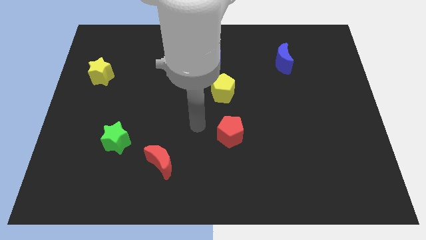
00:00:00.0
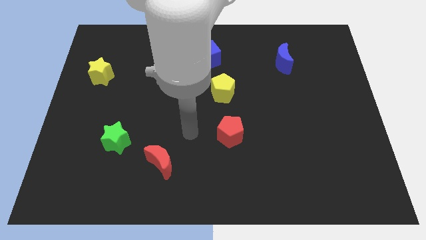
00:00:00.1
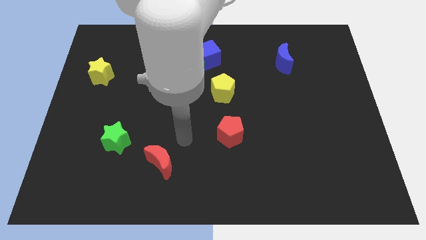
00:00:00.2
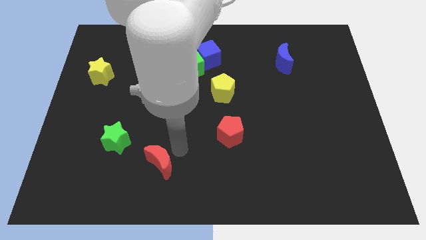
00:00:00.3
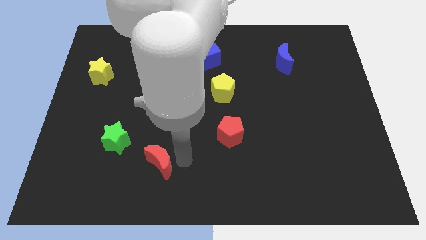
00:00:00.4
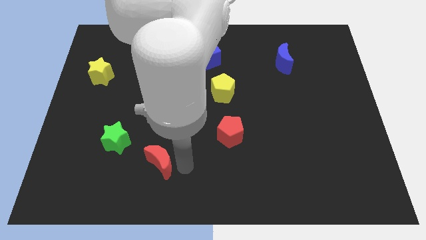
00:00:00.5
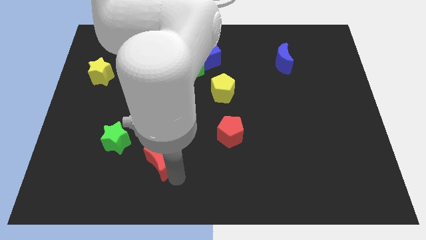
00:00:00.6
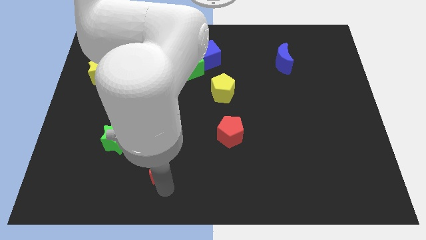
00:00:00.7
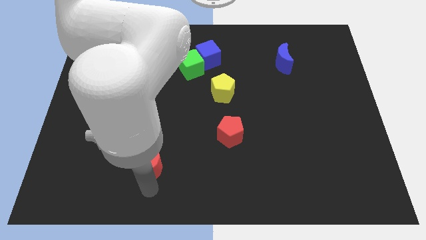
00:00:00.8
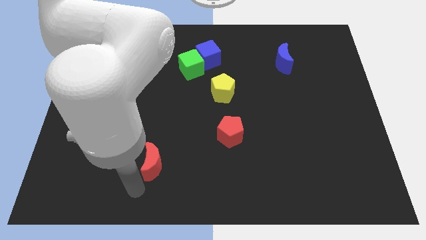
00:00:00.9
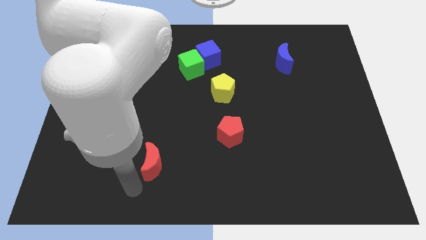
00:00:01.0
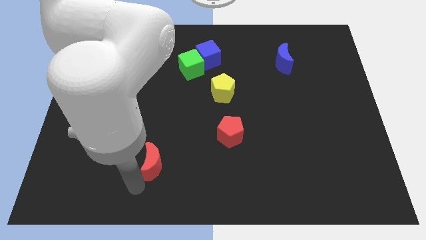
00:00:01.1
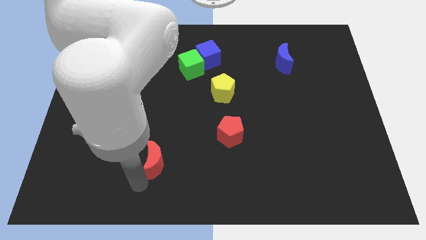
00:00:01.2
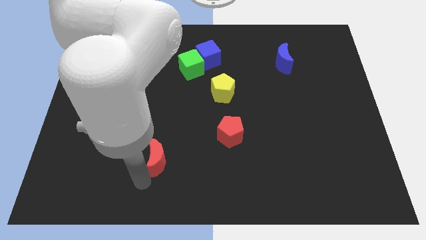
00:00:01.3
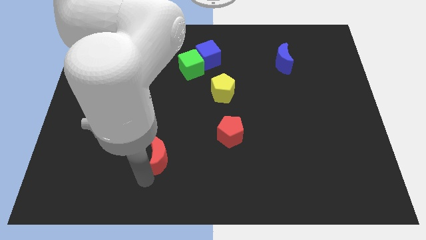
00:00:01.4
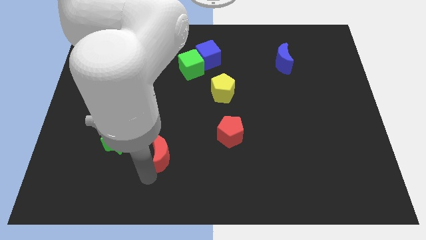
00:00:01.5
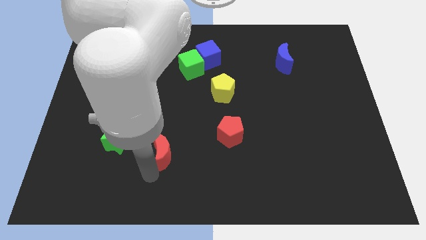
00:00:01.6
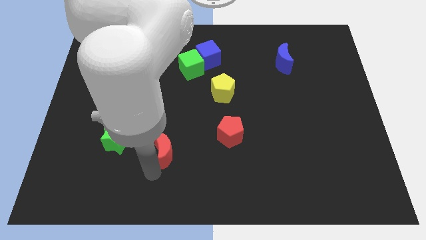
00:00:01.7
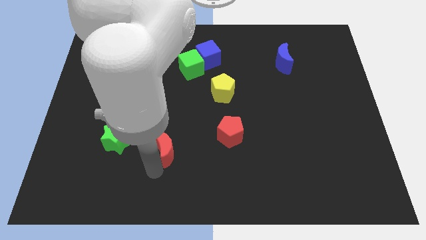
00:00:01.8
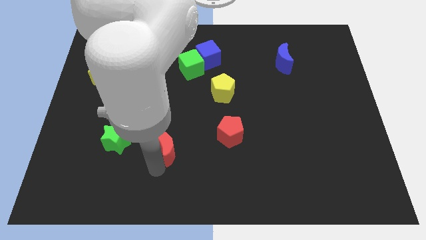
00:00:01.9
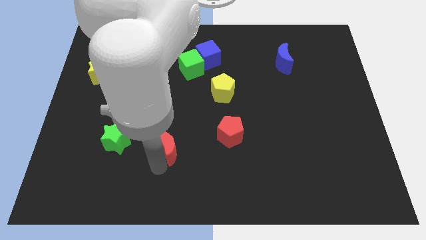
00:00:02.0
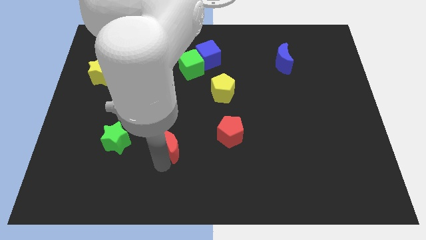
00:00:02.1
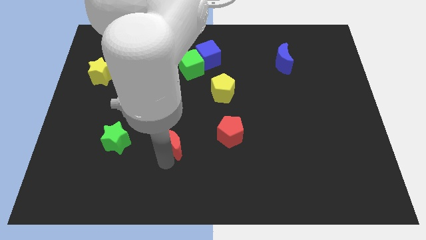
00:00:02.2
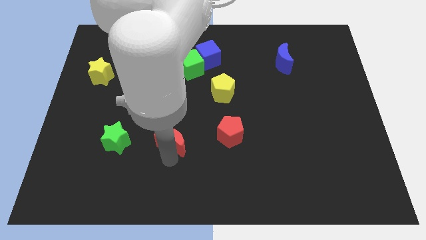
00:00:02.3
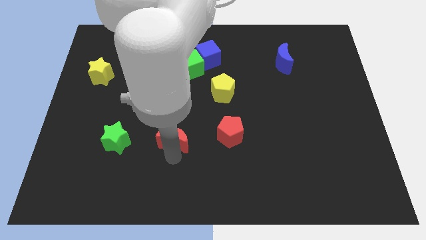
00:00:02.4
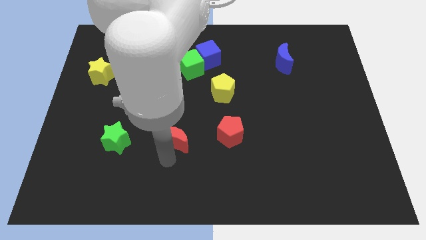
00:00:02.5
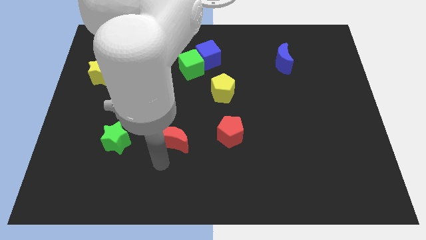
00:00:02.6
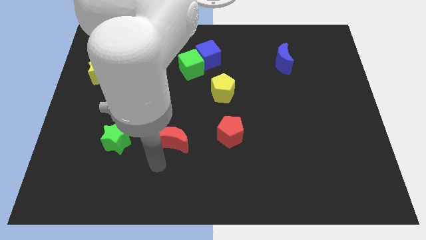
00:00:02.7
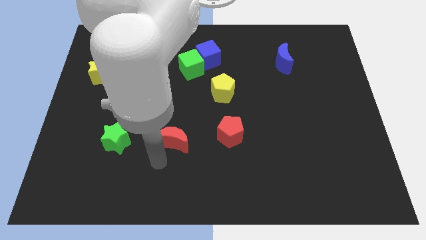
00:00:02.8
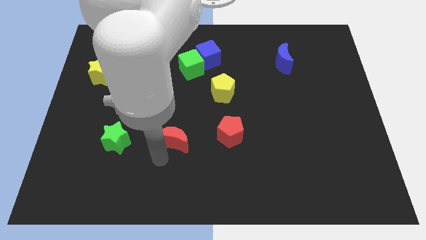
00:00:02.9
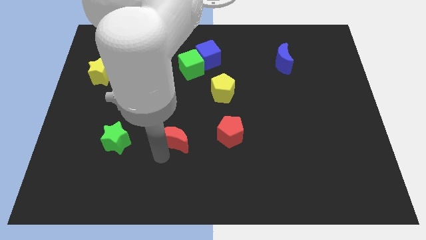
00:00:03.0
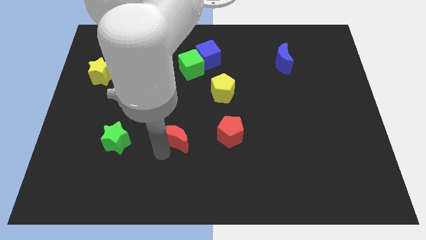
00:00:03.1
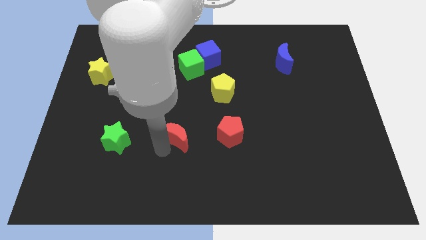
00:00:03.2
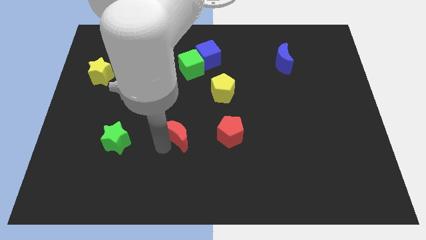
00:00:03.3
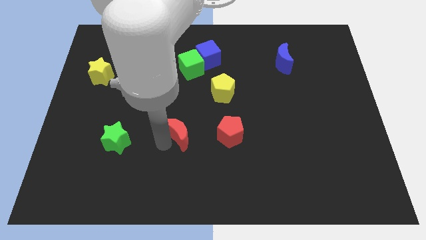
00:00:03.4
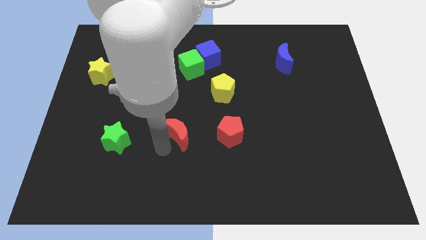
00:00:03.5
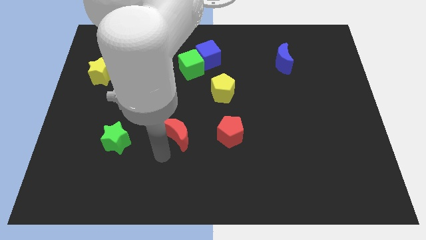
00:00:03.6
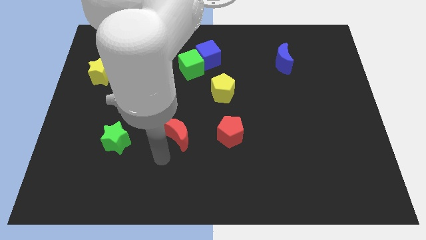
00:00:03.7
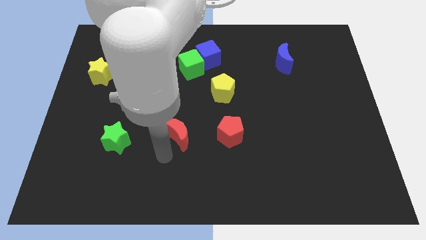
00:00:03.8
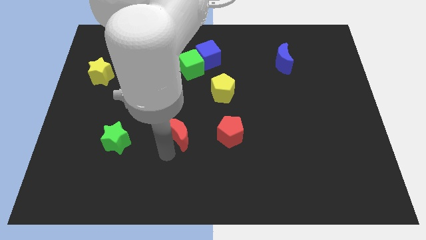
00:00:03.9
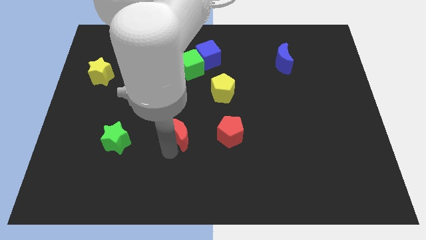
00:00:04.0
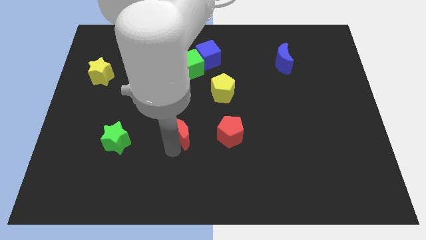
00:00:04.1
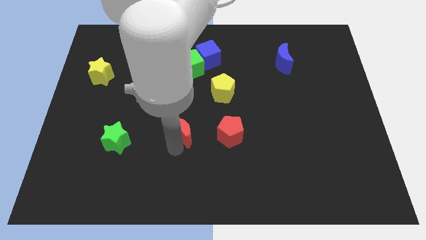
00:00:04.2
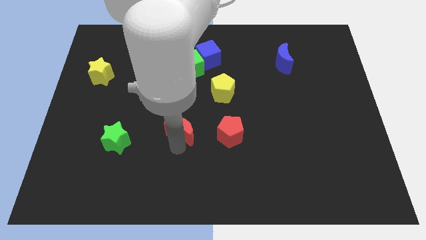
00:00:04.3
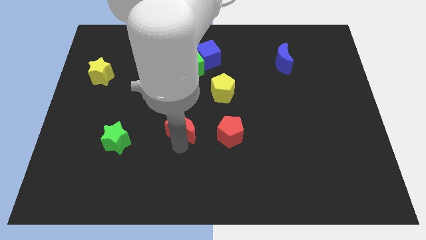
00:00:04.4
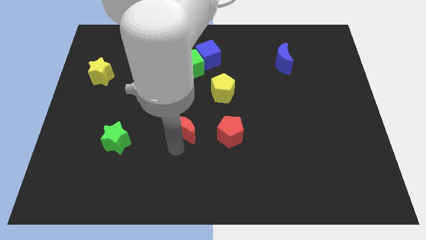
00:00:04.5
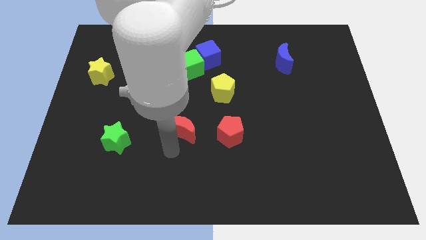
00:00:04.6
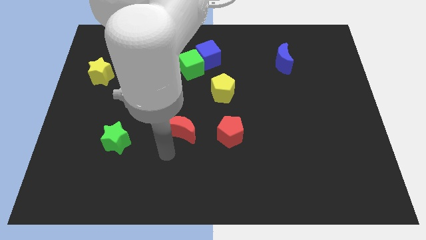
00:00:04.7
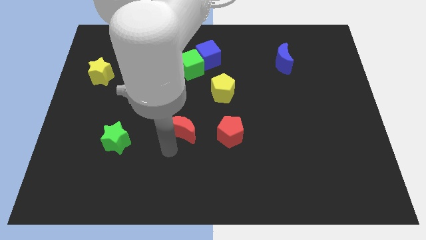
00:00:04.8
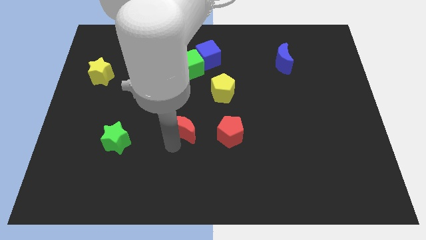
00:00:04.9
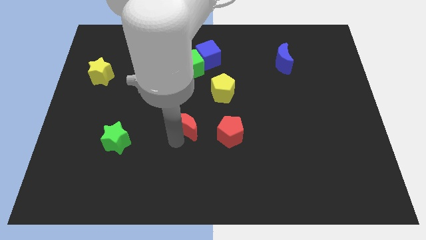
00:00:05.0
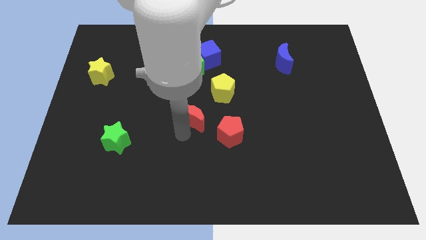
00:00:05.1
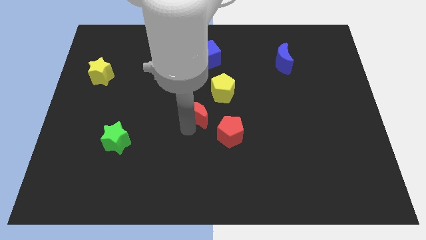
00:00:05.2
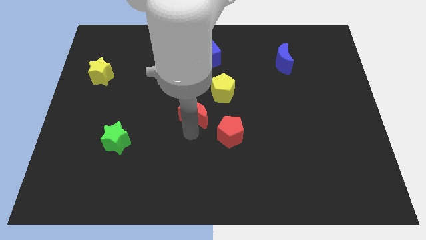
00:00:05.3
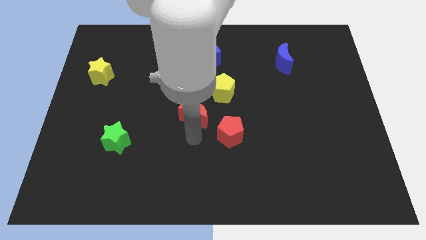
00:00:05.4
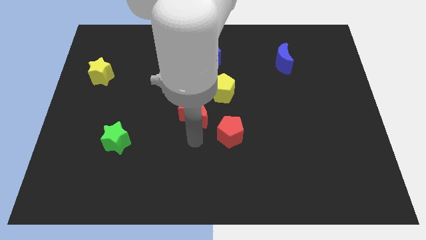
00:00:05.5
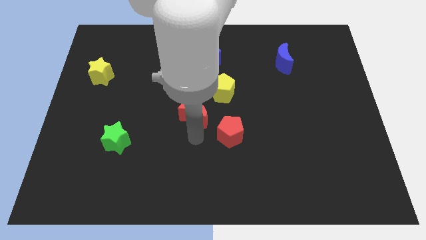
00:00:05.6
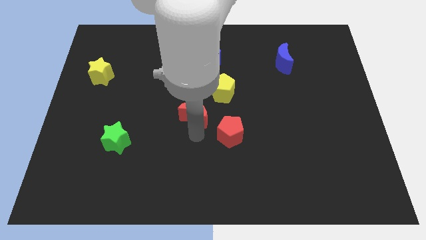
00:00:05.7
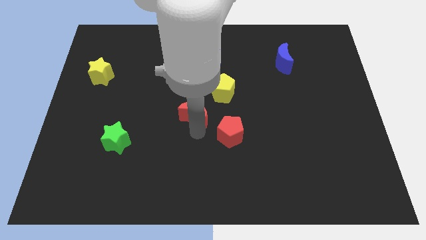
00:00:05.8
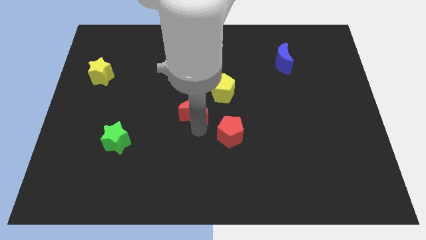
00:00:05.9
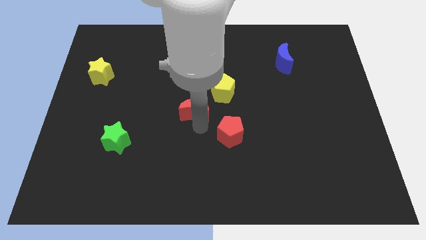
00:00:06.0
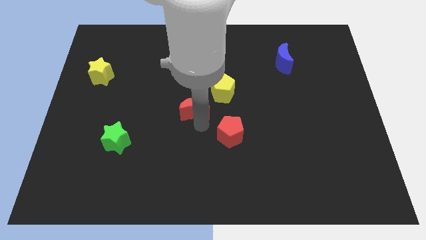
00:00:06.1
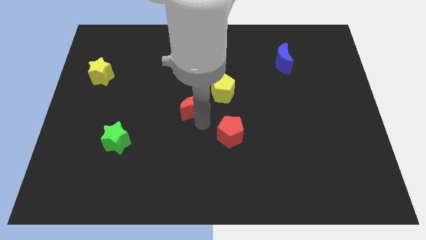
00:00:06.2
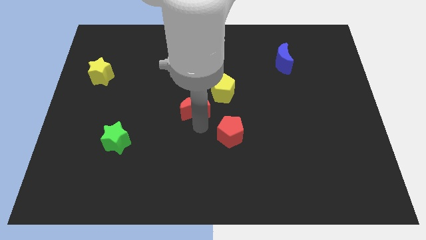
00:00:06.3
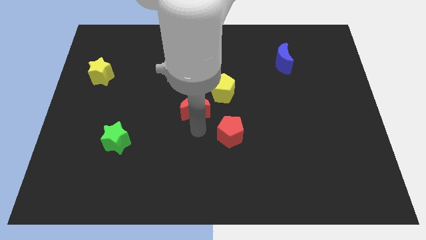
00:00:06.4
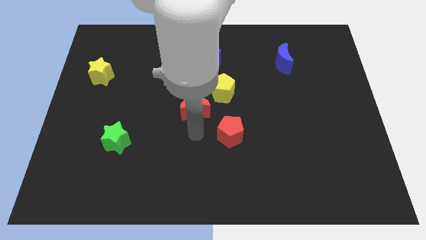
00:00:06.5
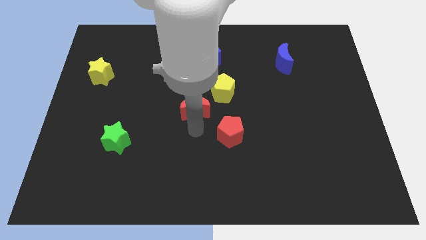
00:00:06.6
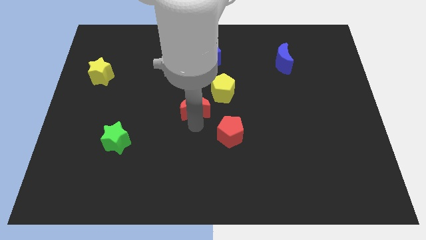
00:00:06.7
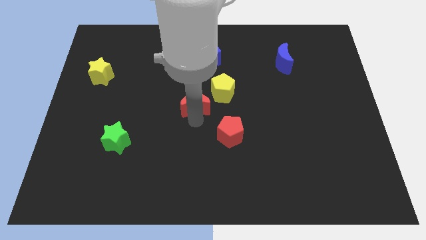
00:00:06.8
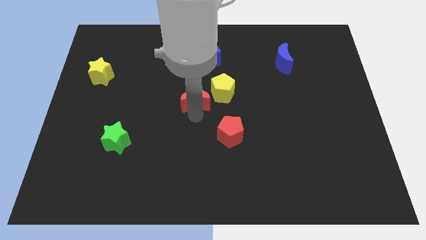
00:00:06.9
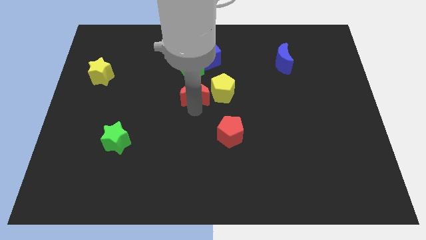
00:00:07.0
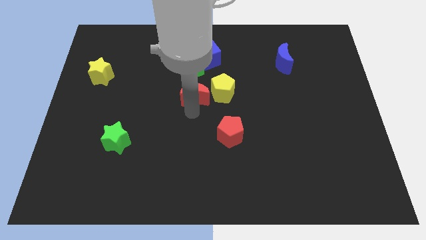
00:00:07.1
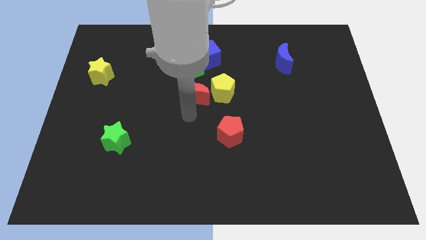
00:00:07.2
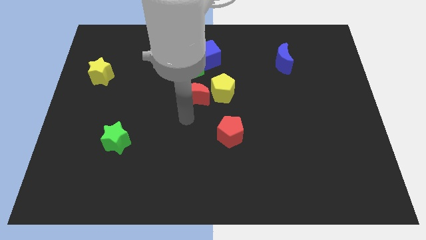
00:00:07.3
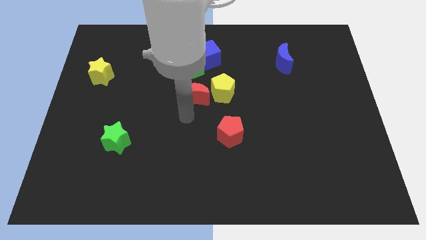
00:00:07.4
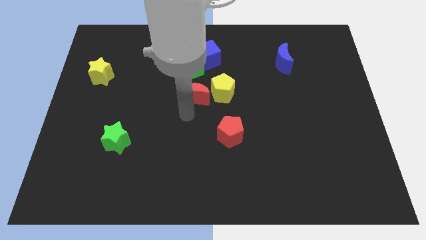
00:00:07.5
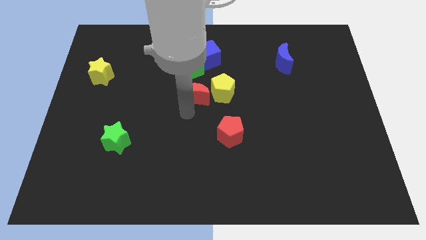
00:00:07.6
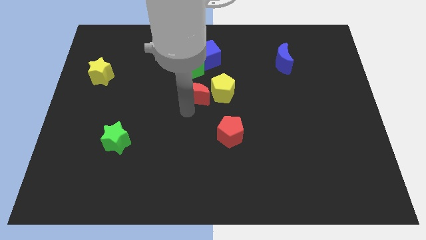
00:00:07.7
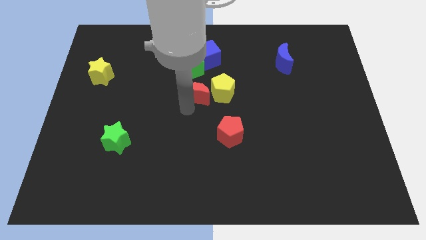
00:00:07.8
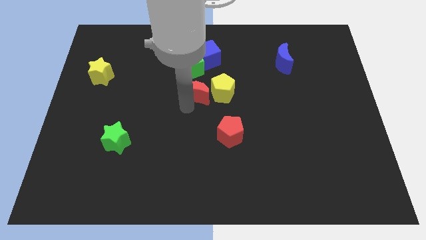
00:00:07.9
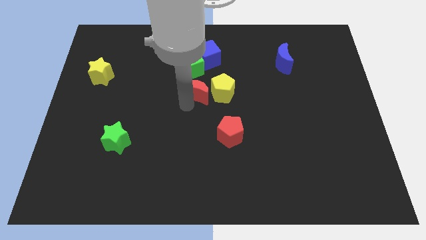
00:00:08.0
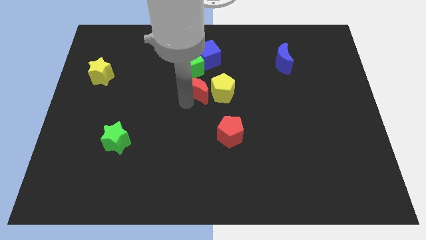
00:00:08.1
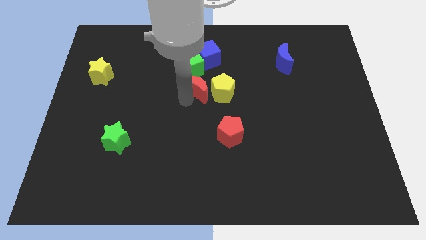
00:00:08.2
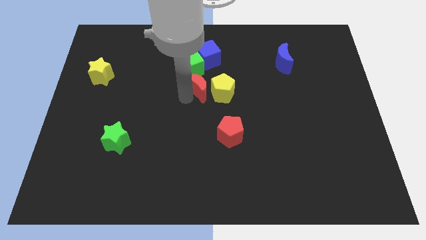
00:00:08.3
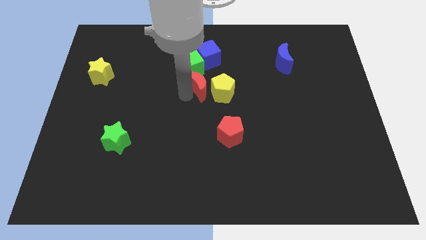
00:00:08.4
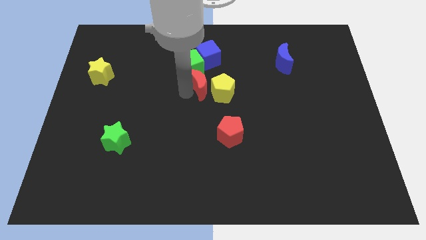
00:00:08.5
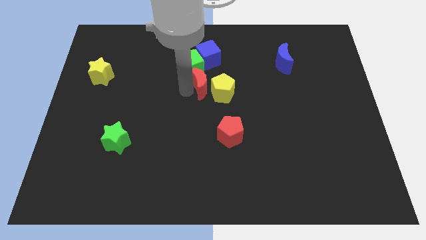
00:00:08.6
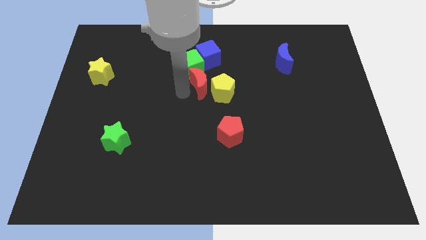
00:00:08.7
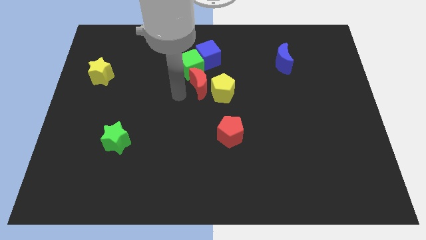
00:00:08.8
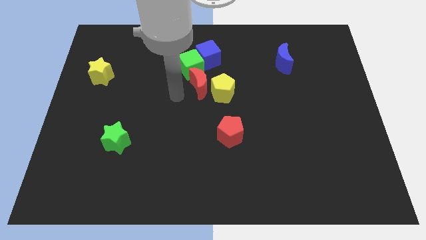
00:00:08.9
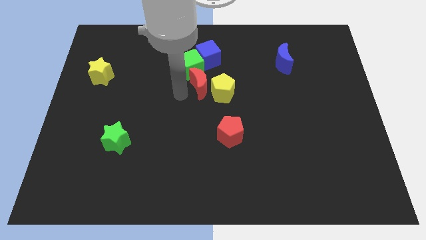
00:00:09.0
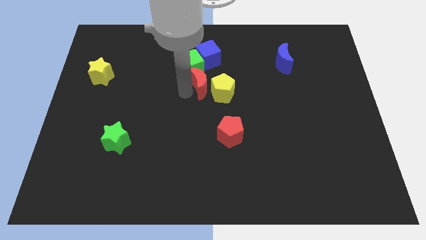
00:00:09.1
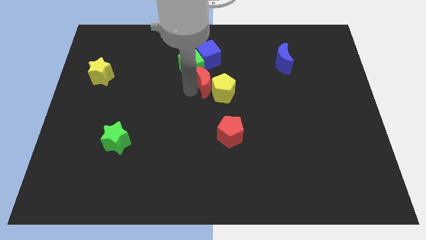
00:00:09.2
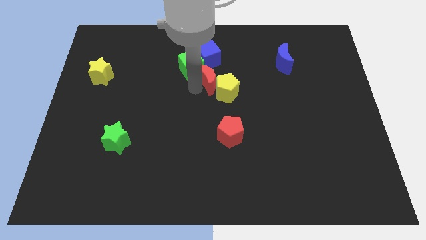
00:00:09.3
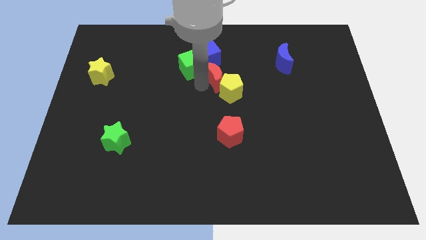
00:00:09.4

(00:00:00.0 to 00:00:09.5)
slide the red moon to the bottom right of the blue cube
